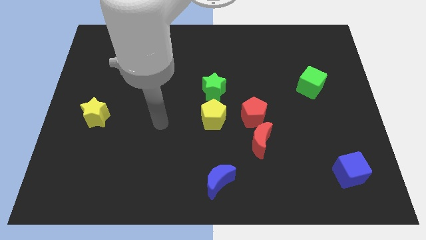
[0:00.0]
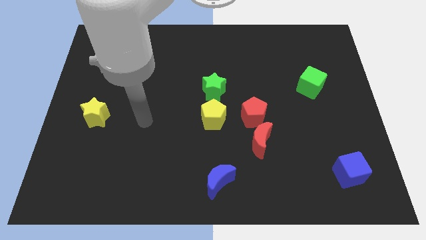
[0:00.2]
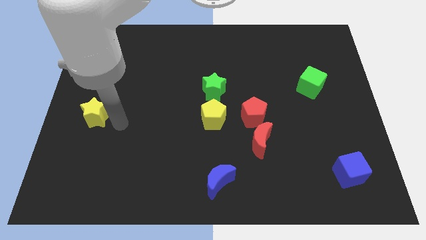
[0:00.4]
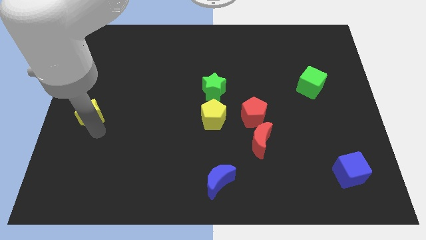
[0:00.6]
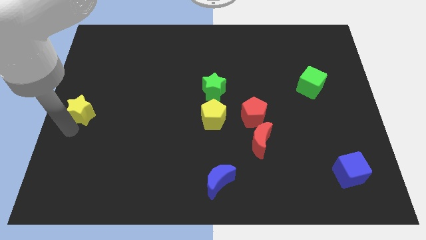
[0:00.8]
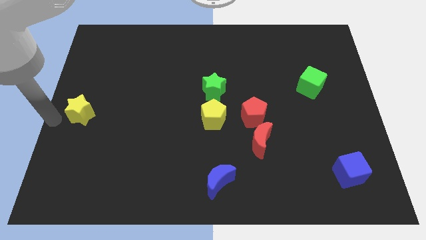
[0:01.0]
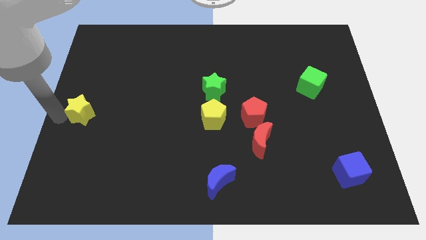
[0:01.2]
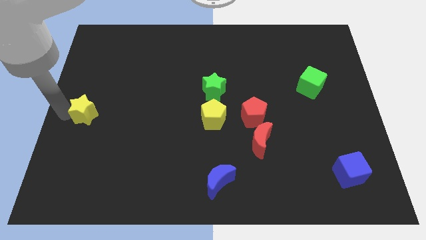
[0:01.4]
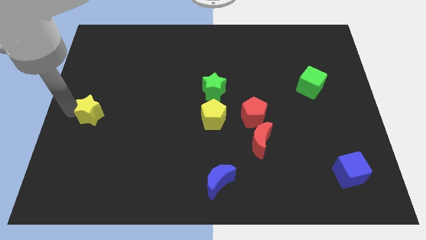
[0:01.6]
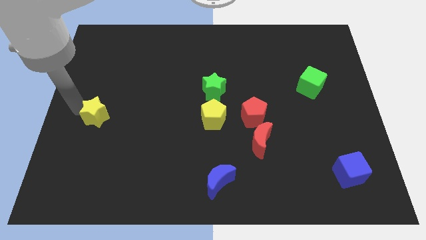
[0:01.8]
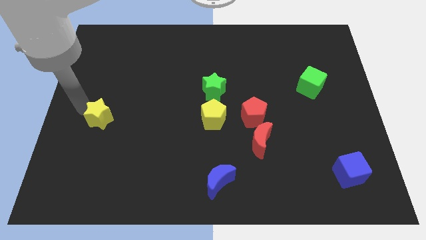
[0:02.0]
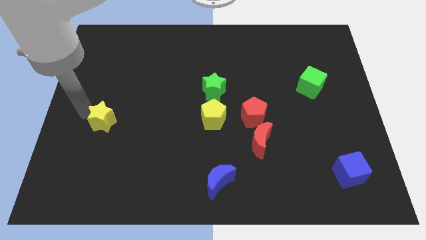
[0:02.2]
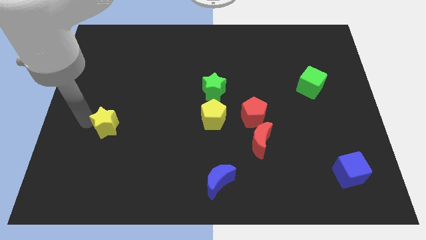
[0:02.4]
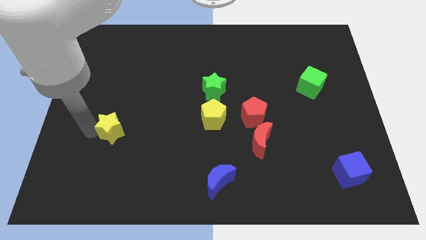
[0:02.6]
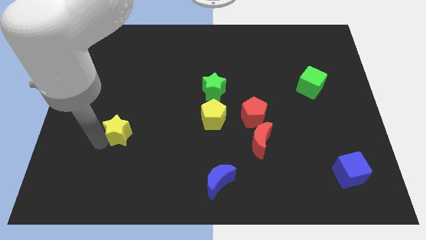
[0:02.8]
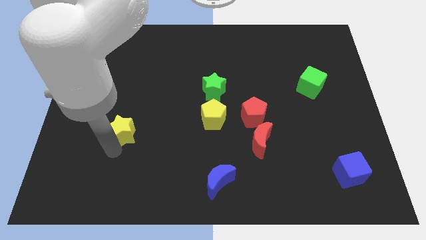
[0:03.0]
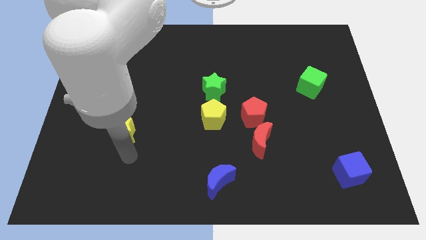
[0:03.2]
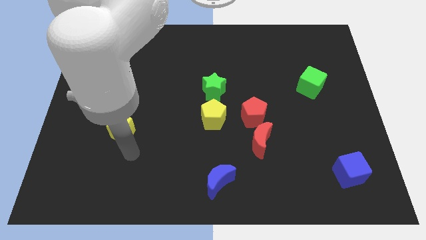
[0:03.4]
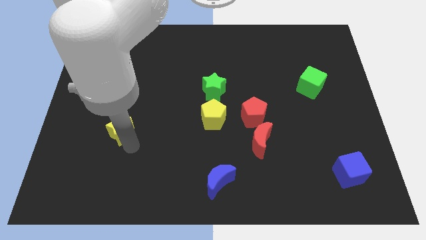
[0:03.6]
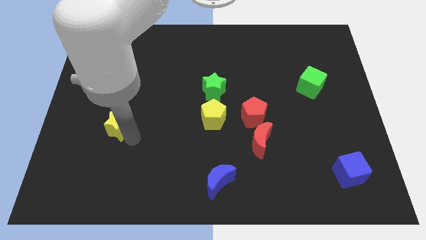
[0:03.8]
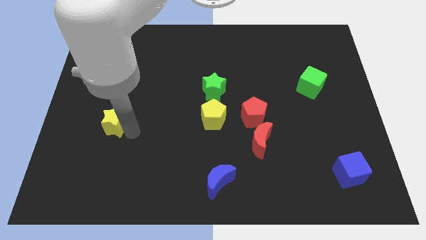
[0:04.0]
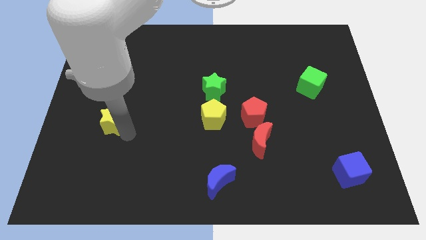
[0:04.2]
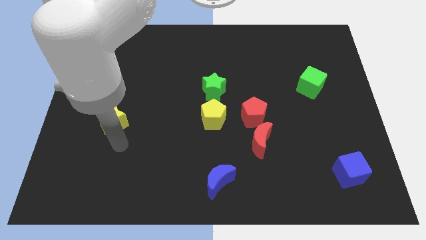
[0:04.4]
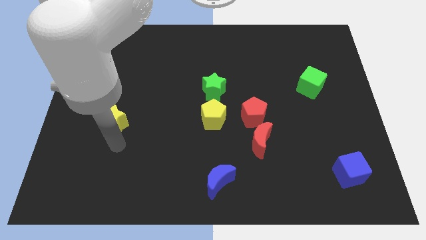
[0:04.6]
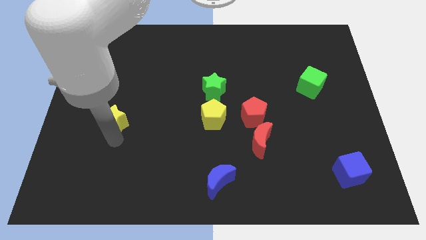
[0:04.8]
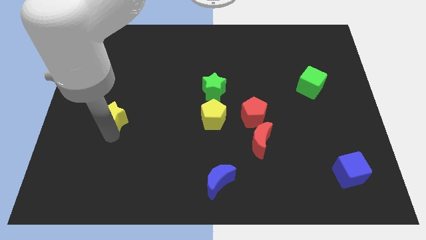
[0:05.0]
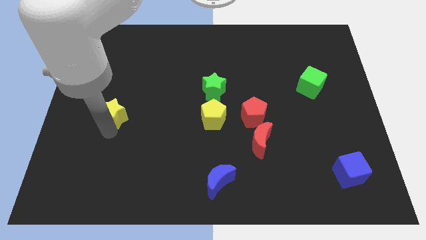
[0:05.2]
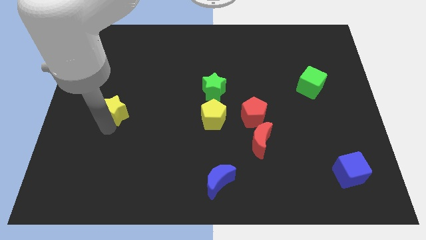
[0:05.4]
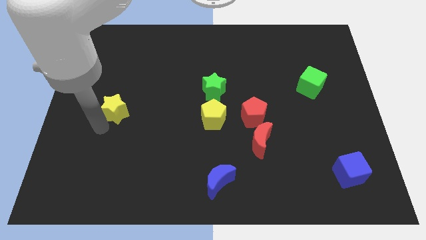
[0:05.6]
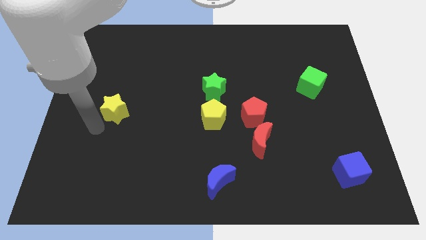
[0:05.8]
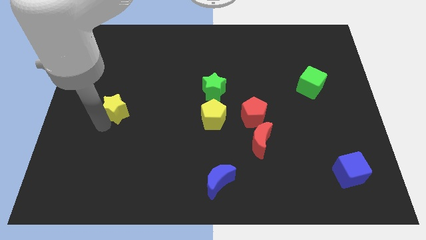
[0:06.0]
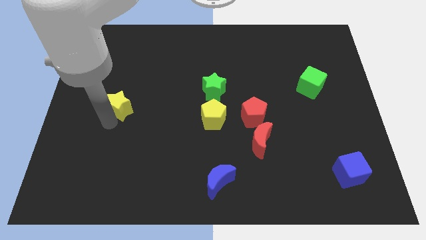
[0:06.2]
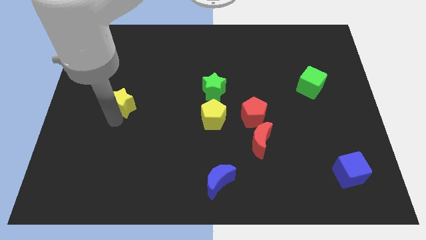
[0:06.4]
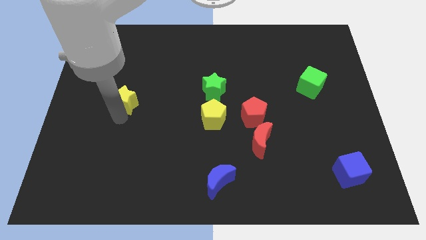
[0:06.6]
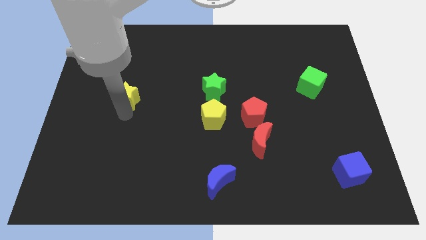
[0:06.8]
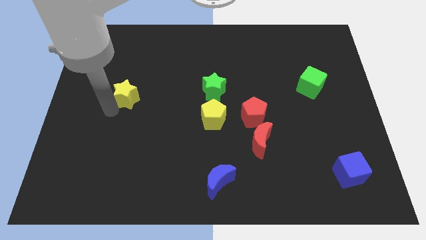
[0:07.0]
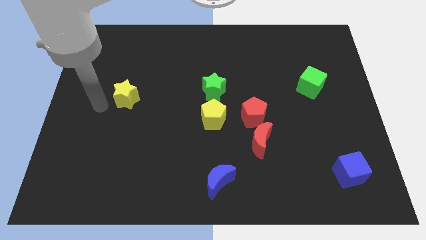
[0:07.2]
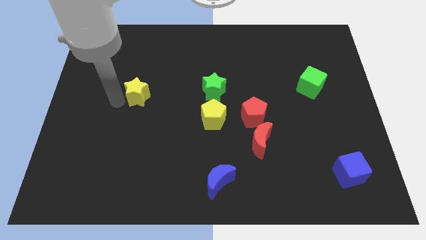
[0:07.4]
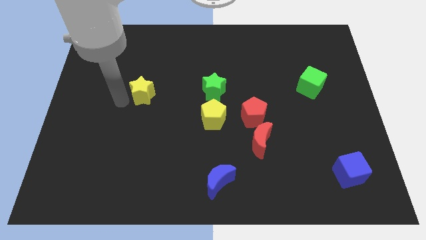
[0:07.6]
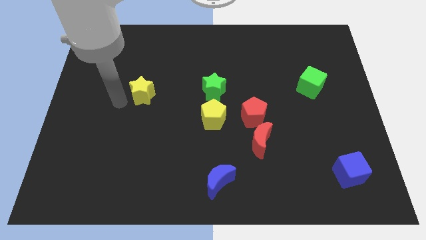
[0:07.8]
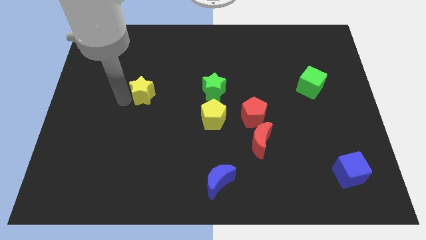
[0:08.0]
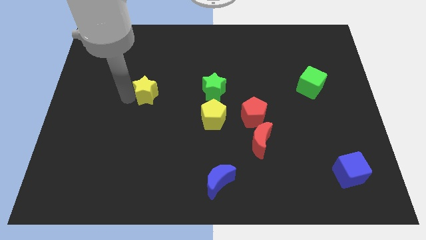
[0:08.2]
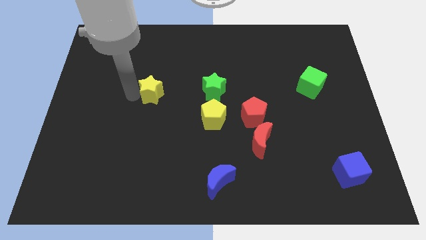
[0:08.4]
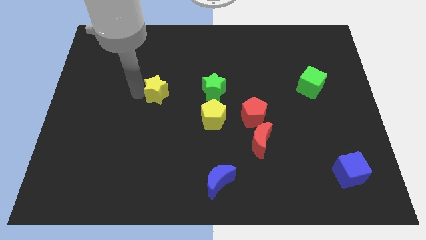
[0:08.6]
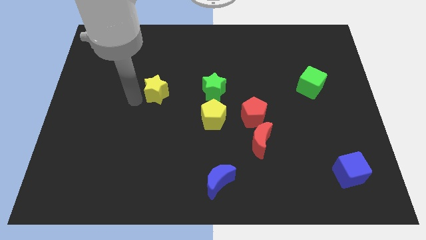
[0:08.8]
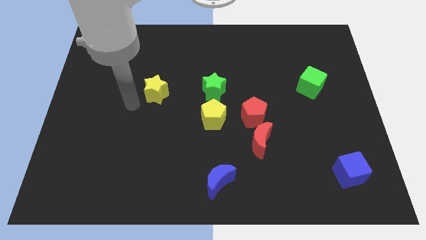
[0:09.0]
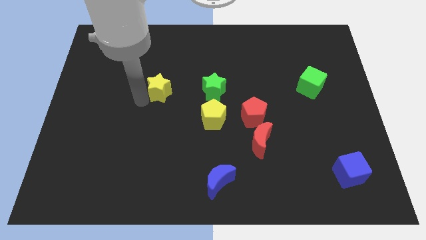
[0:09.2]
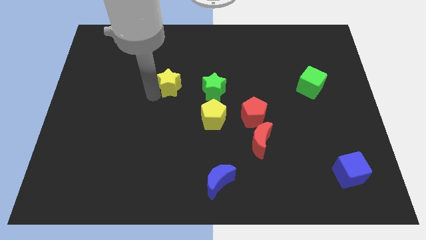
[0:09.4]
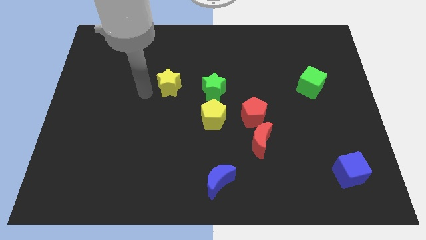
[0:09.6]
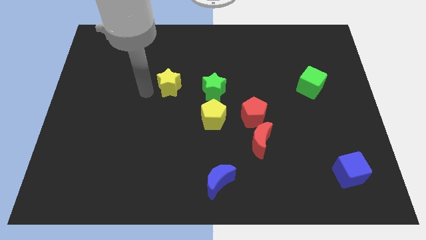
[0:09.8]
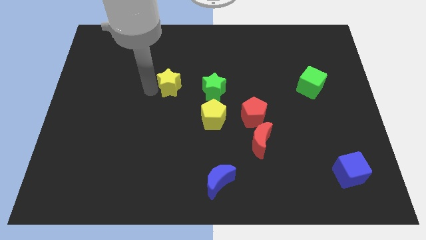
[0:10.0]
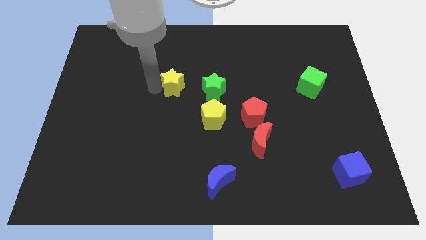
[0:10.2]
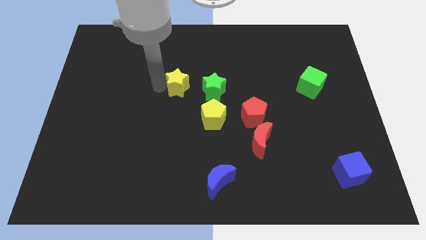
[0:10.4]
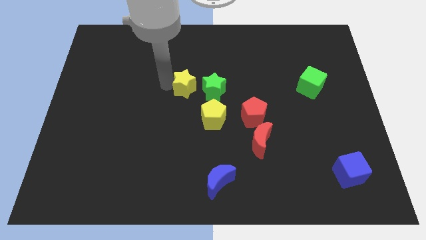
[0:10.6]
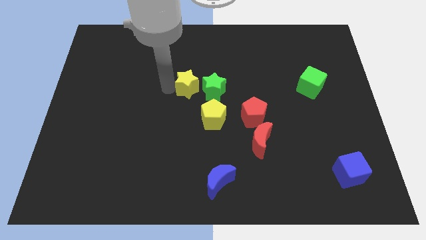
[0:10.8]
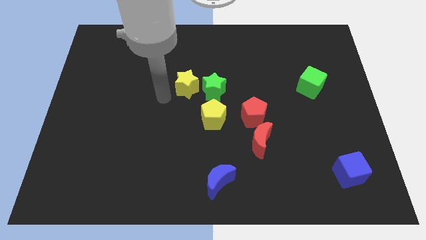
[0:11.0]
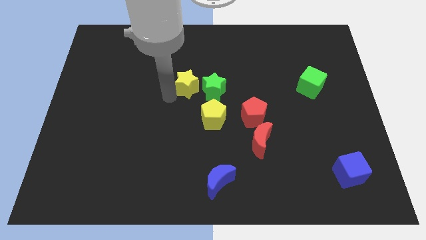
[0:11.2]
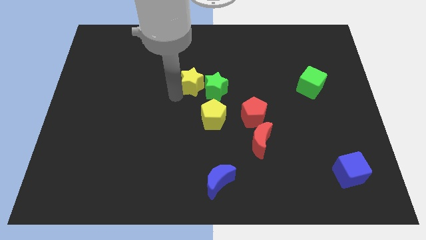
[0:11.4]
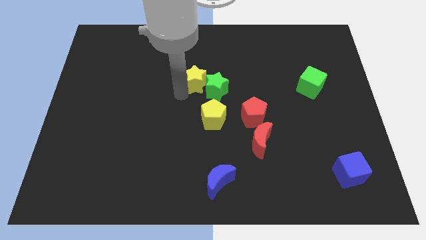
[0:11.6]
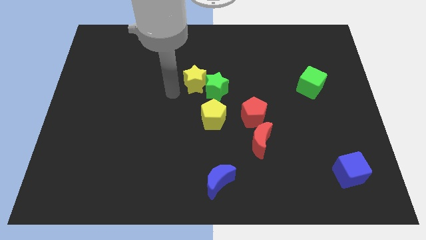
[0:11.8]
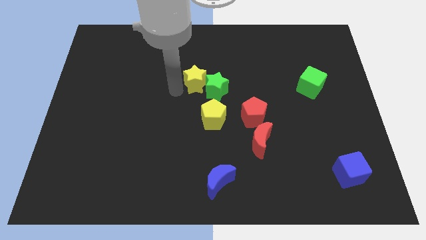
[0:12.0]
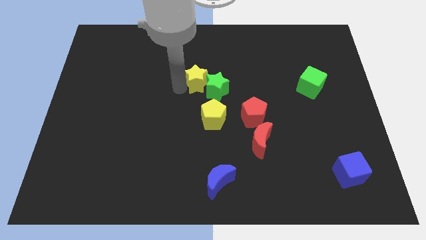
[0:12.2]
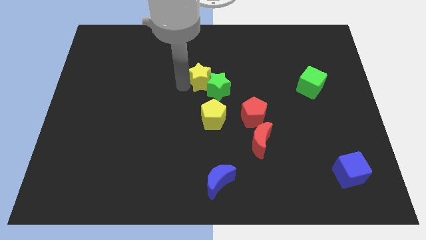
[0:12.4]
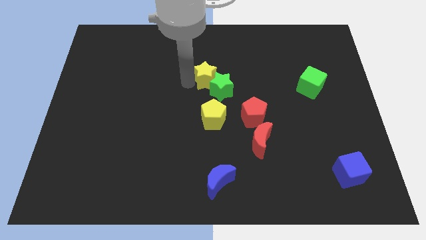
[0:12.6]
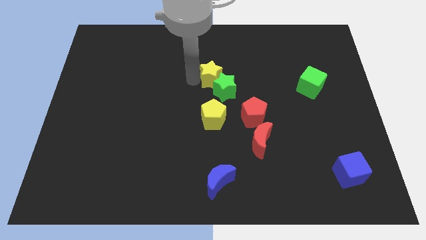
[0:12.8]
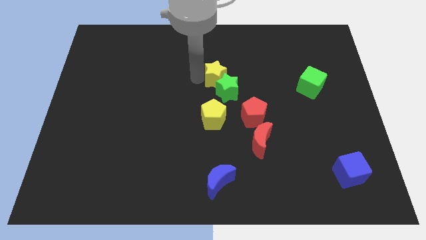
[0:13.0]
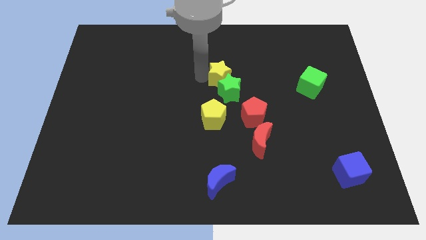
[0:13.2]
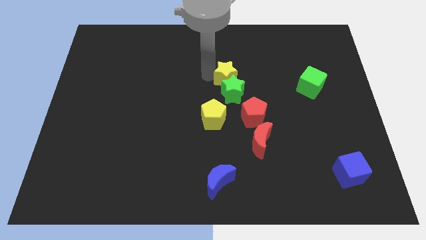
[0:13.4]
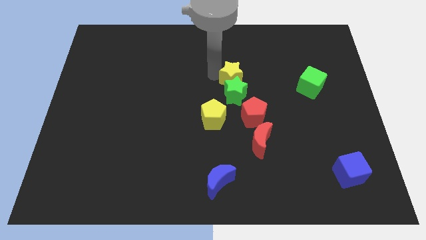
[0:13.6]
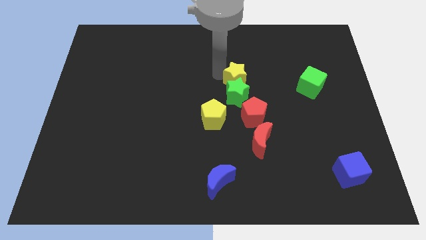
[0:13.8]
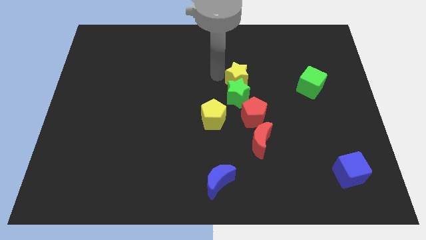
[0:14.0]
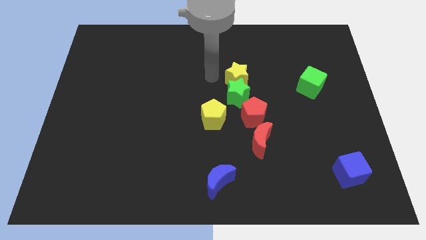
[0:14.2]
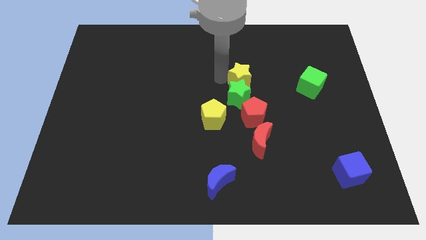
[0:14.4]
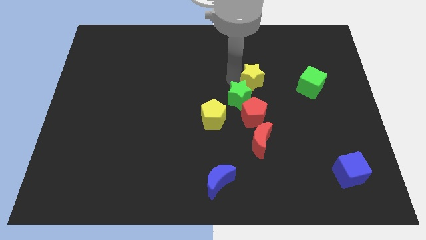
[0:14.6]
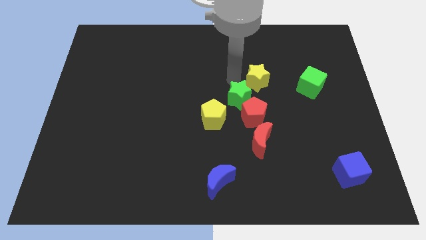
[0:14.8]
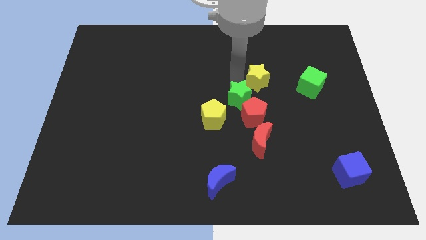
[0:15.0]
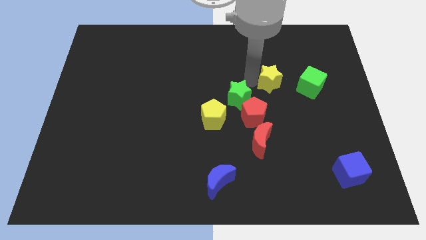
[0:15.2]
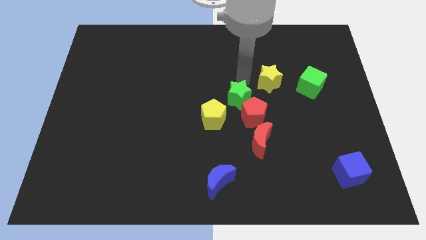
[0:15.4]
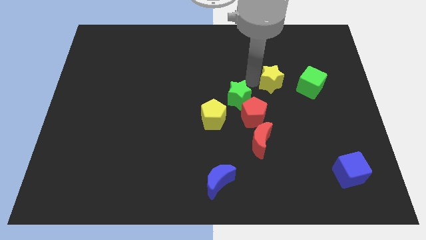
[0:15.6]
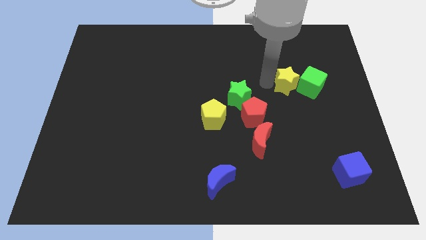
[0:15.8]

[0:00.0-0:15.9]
push the yellow star next to the green cube
